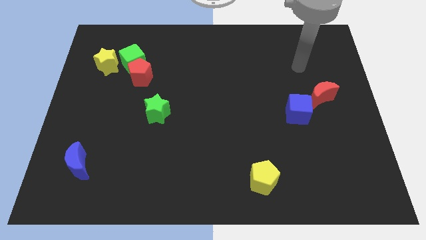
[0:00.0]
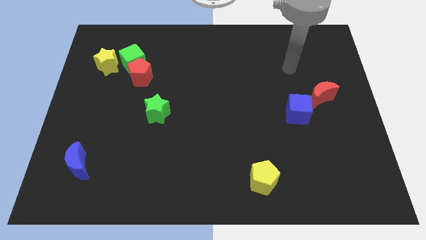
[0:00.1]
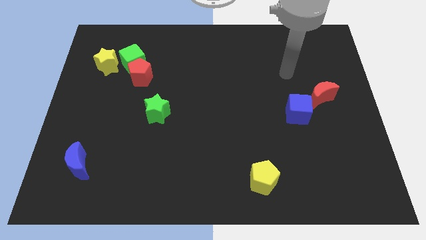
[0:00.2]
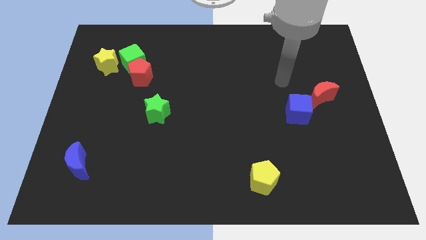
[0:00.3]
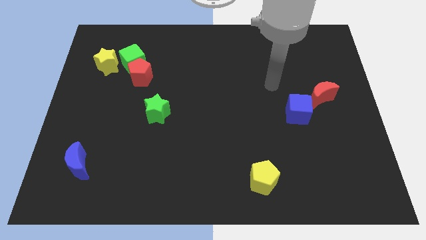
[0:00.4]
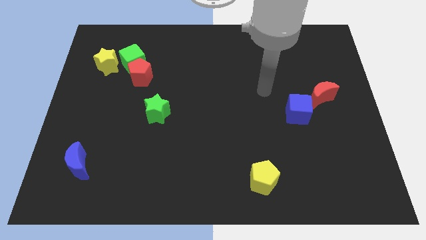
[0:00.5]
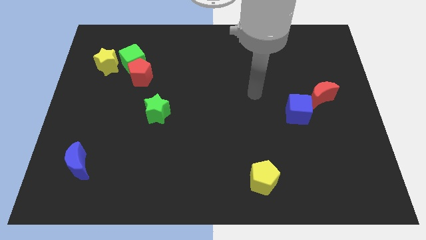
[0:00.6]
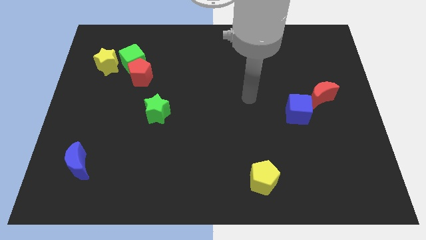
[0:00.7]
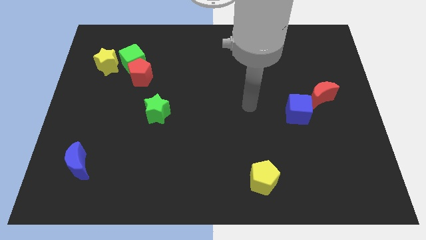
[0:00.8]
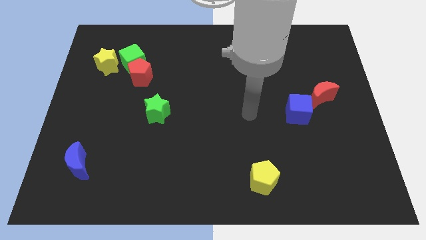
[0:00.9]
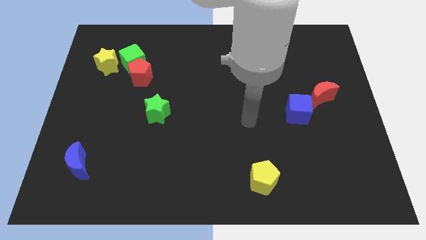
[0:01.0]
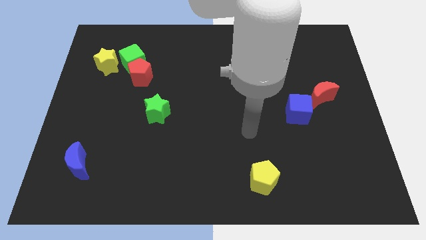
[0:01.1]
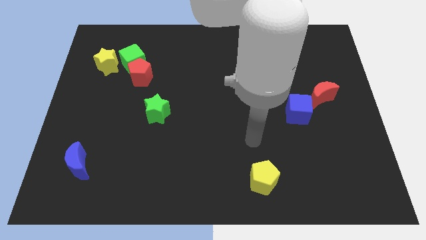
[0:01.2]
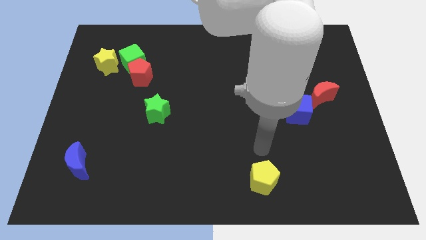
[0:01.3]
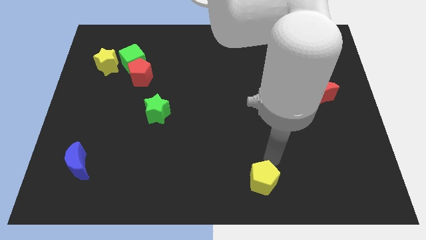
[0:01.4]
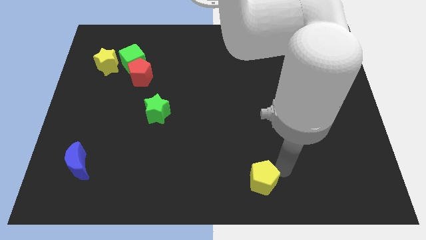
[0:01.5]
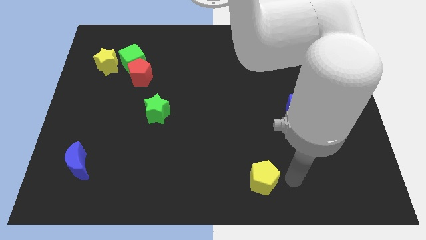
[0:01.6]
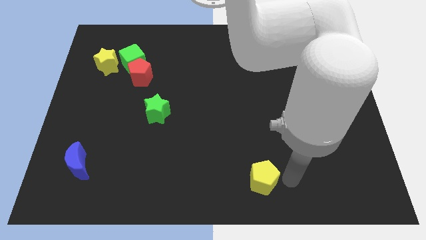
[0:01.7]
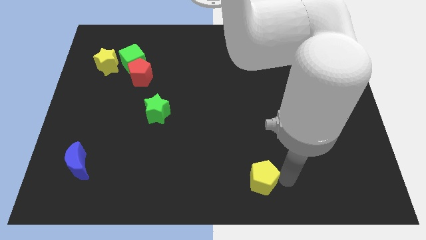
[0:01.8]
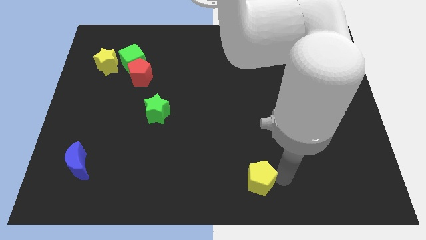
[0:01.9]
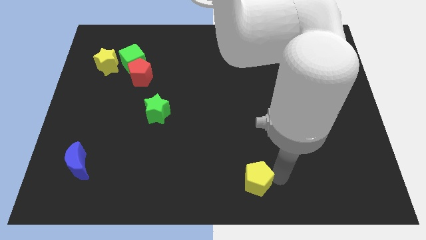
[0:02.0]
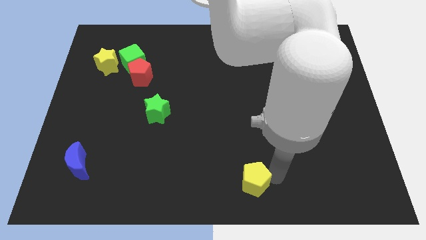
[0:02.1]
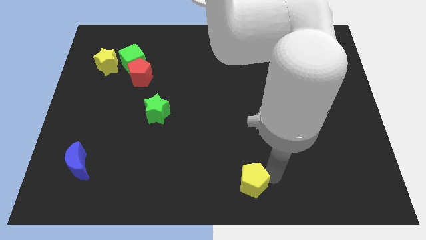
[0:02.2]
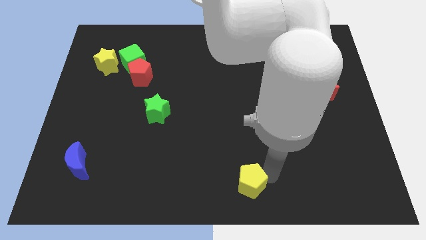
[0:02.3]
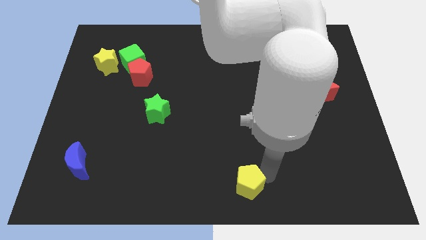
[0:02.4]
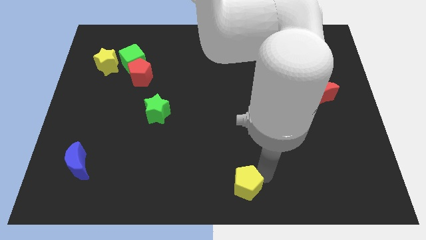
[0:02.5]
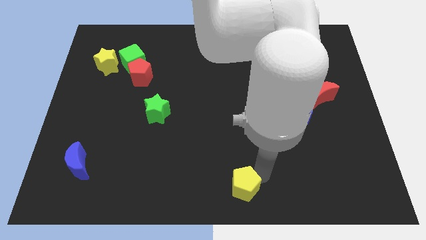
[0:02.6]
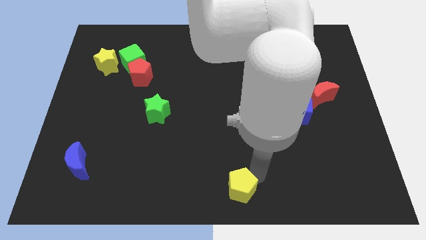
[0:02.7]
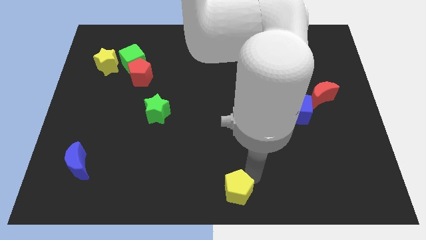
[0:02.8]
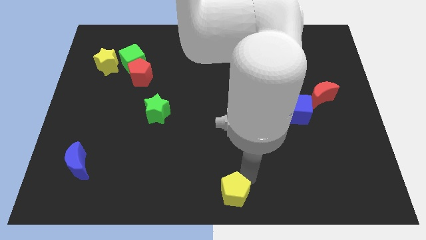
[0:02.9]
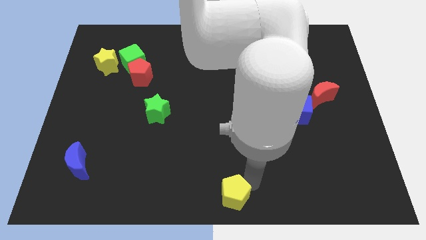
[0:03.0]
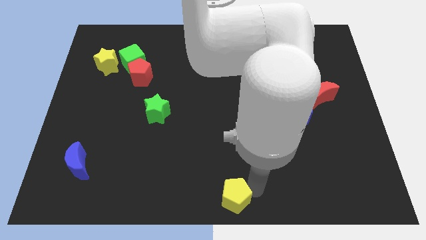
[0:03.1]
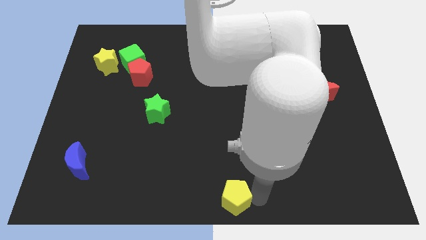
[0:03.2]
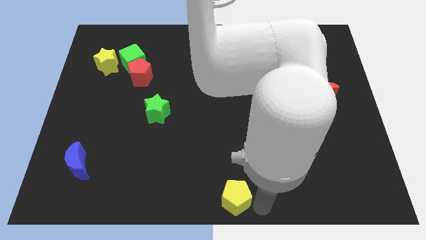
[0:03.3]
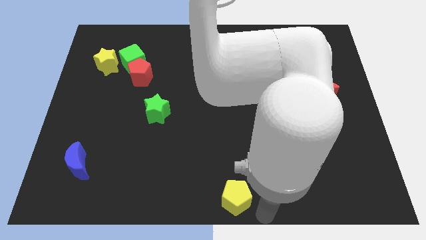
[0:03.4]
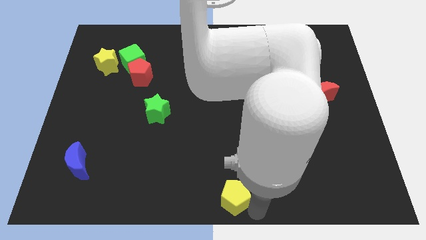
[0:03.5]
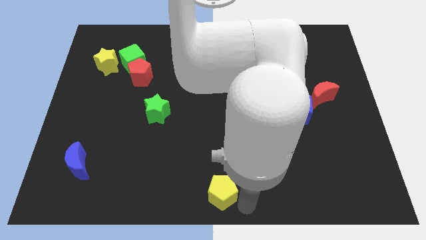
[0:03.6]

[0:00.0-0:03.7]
slightly push the yellow pentagon left

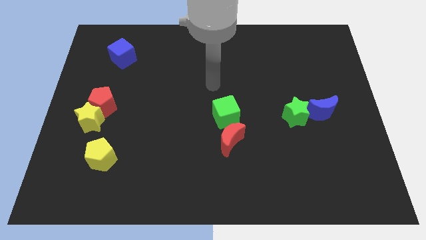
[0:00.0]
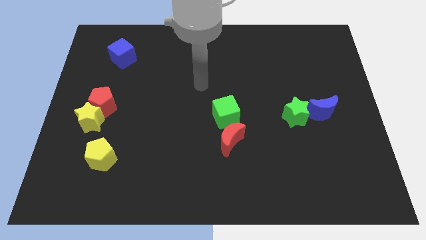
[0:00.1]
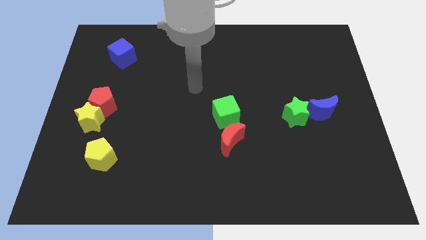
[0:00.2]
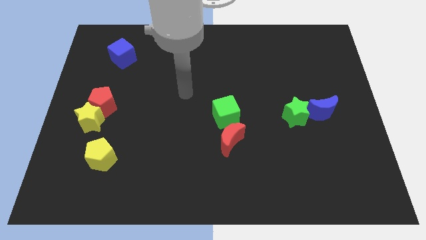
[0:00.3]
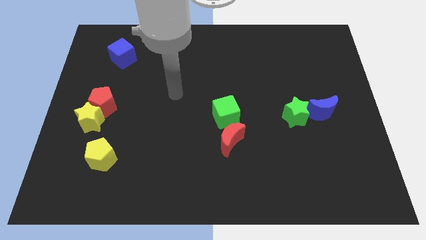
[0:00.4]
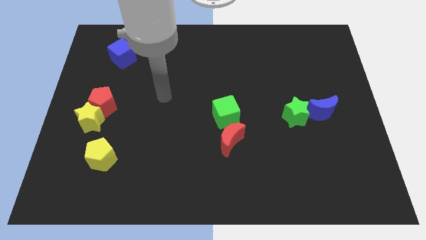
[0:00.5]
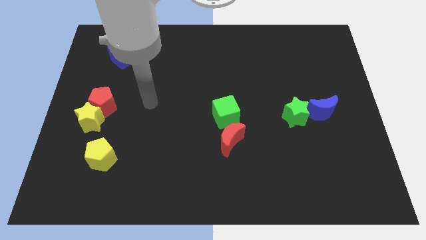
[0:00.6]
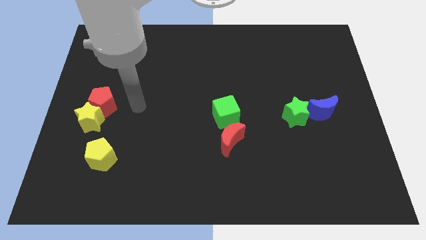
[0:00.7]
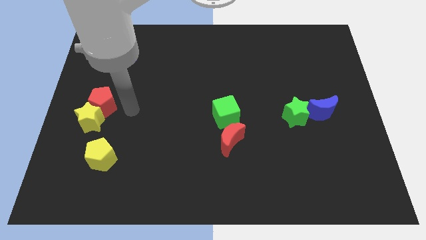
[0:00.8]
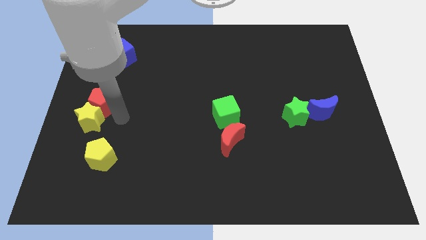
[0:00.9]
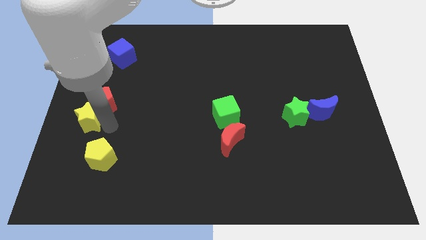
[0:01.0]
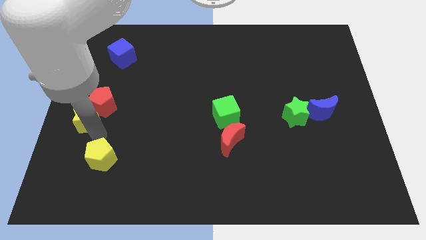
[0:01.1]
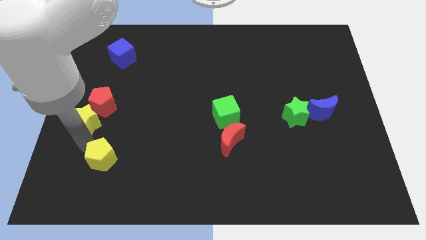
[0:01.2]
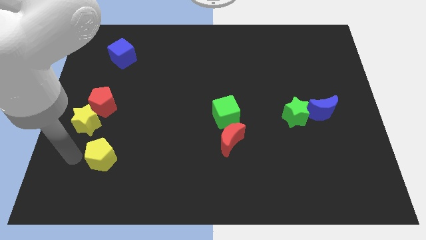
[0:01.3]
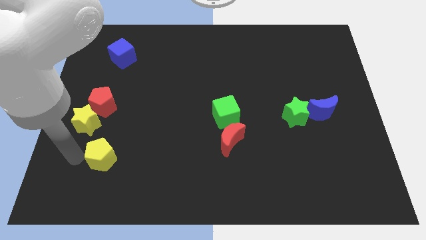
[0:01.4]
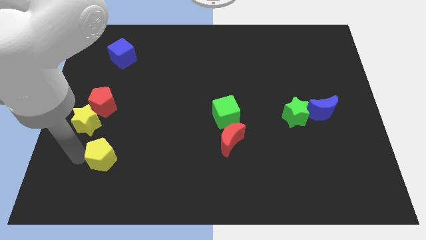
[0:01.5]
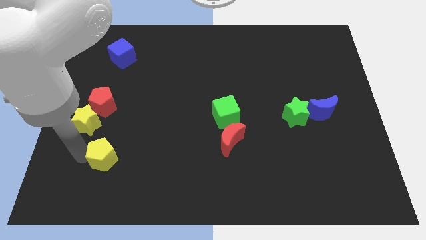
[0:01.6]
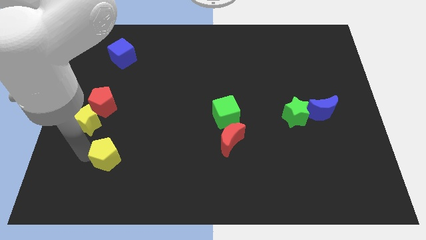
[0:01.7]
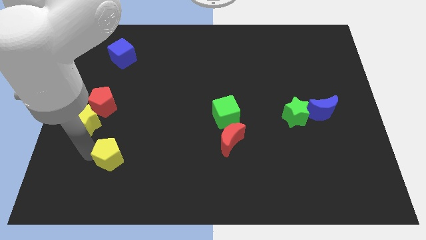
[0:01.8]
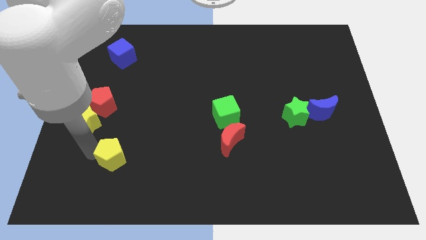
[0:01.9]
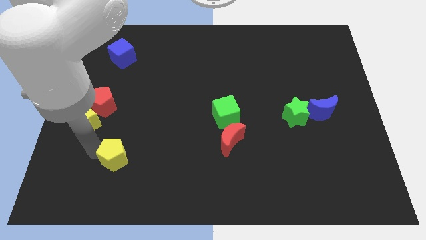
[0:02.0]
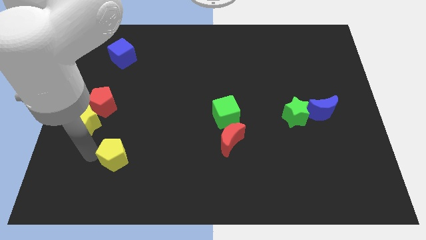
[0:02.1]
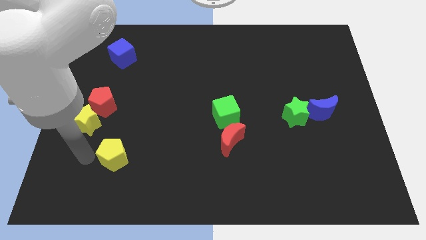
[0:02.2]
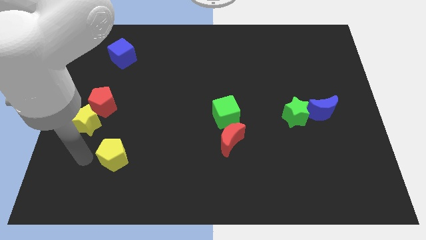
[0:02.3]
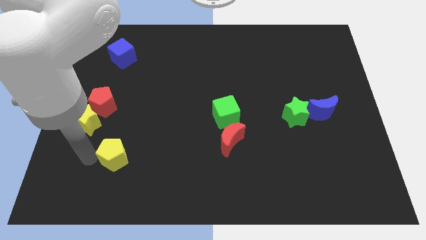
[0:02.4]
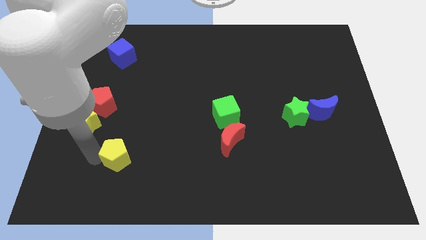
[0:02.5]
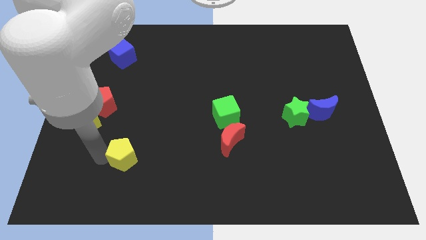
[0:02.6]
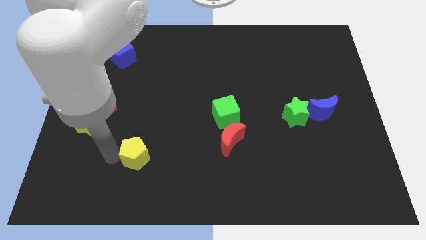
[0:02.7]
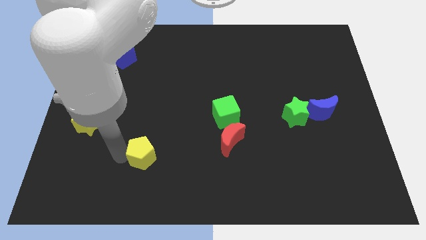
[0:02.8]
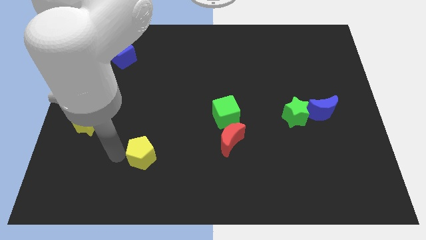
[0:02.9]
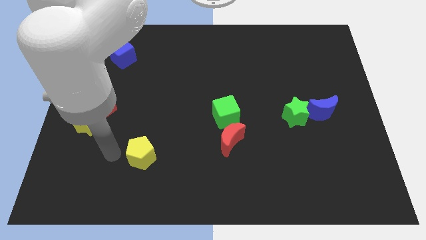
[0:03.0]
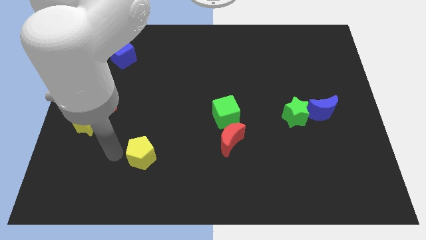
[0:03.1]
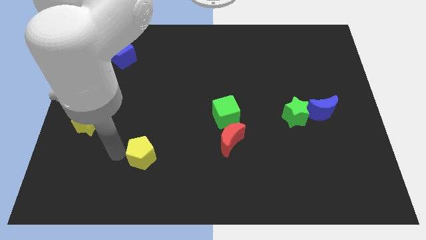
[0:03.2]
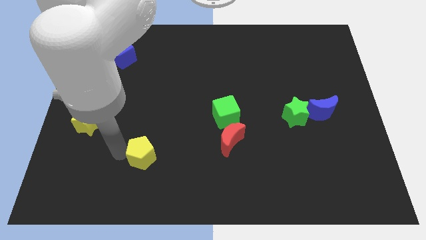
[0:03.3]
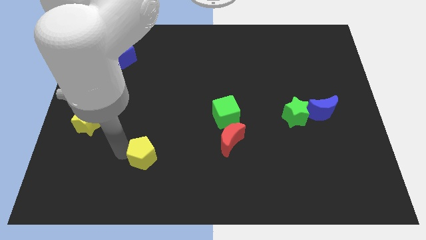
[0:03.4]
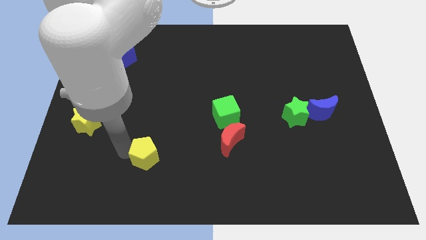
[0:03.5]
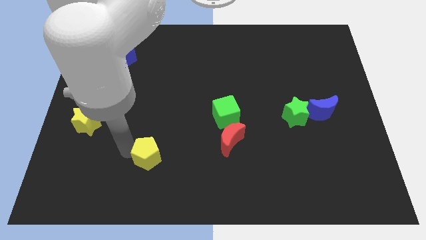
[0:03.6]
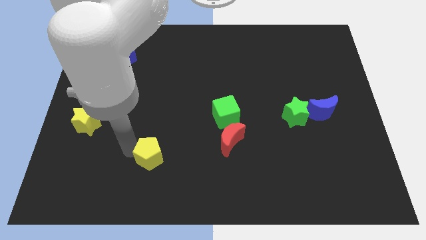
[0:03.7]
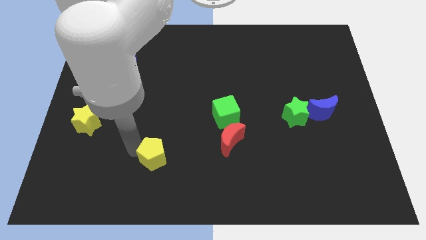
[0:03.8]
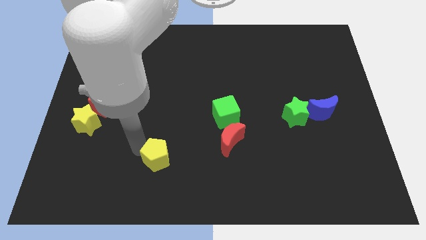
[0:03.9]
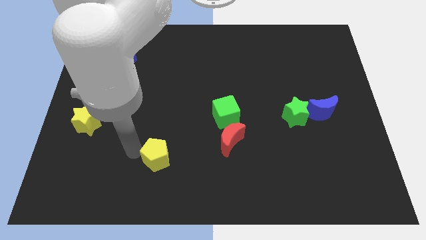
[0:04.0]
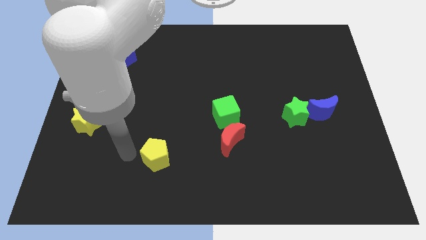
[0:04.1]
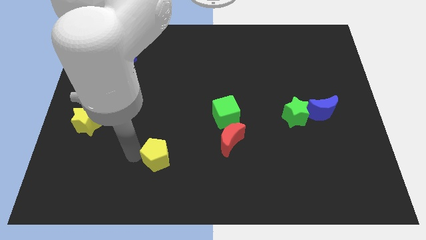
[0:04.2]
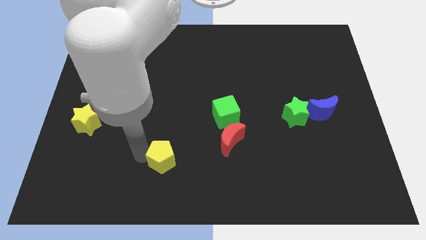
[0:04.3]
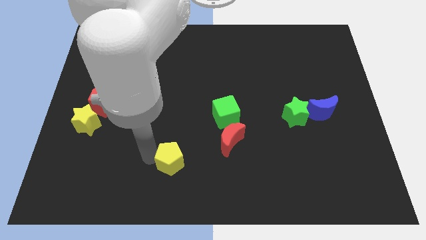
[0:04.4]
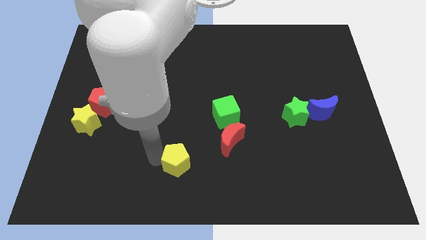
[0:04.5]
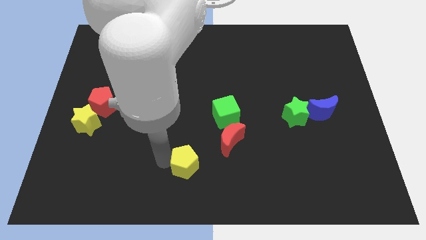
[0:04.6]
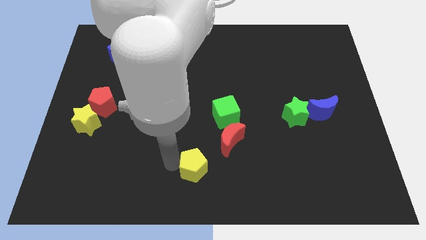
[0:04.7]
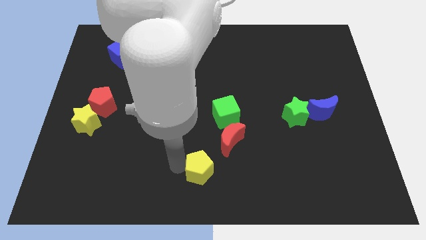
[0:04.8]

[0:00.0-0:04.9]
push the yellow pentagon to the right

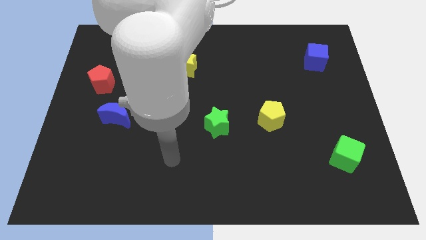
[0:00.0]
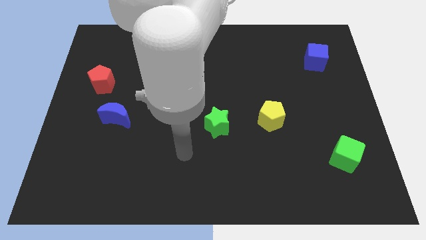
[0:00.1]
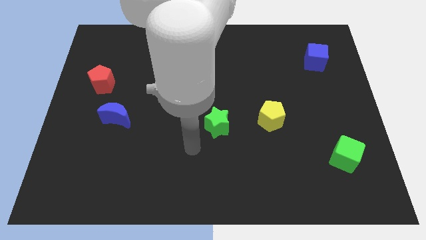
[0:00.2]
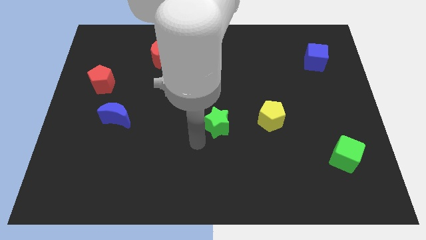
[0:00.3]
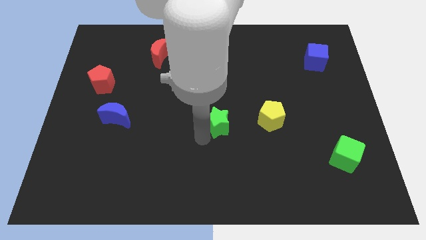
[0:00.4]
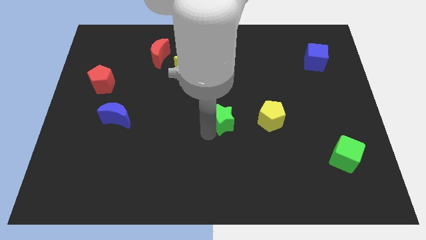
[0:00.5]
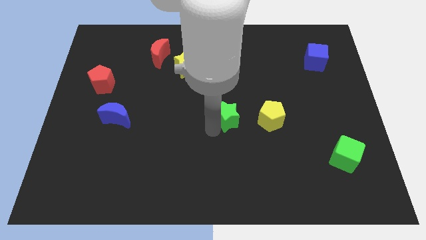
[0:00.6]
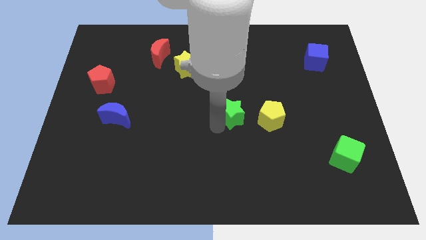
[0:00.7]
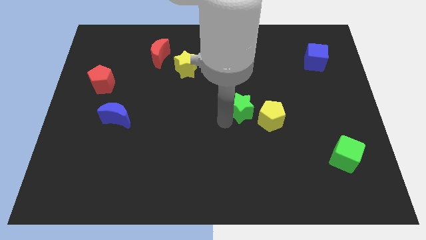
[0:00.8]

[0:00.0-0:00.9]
push the green star upwards and then right a bit
